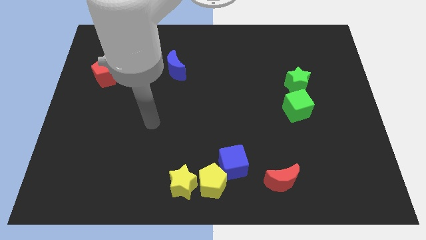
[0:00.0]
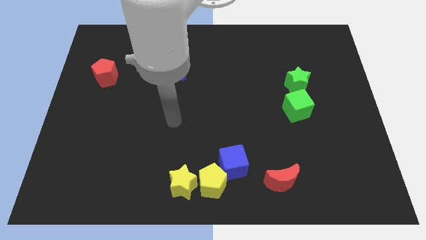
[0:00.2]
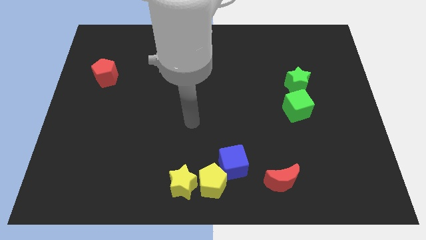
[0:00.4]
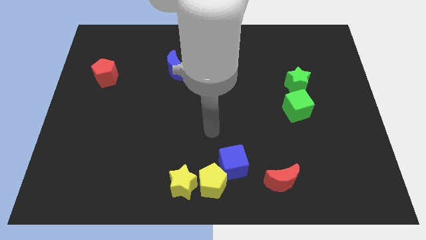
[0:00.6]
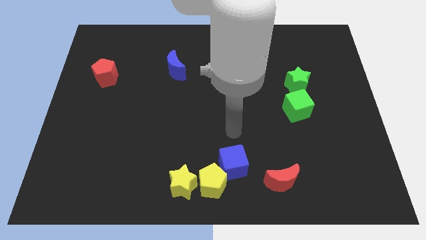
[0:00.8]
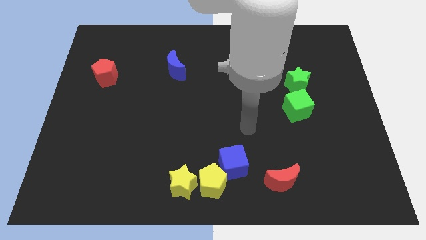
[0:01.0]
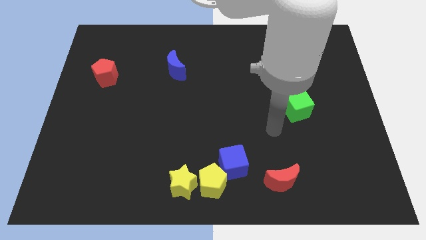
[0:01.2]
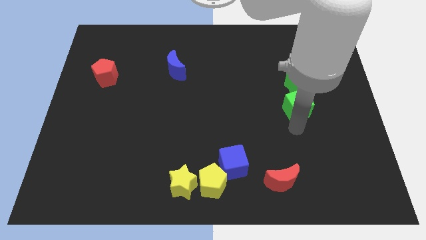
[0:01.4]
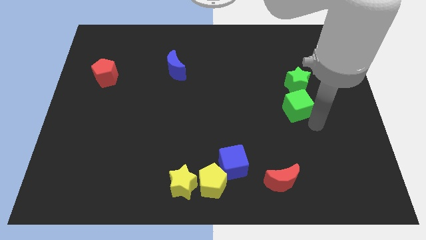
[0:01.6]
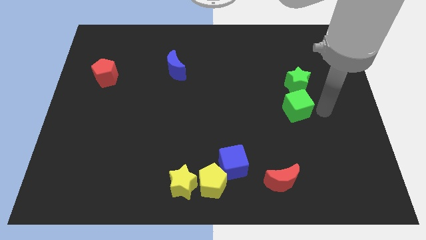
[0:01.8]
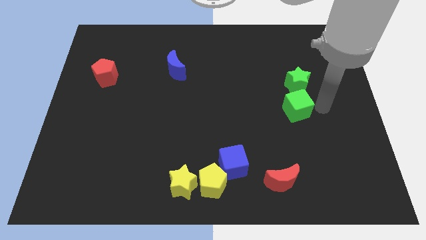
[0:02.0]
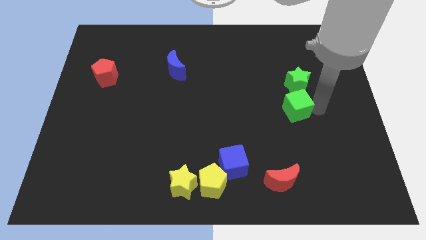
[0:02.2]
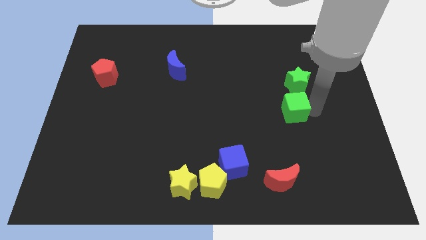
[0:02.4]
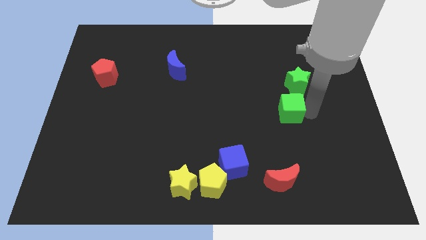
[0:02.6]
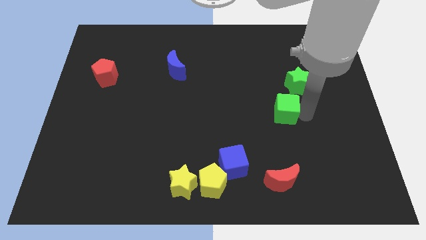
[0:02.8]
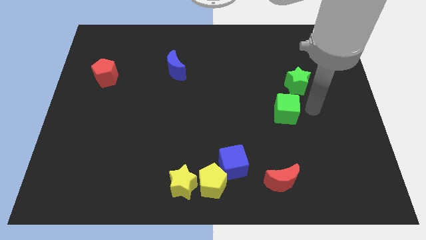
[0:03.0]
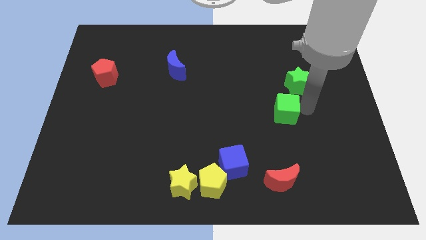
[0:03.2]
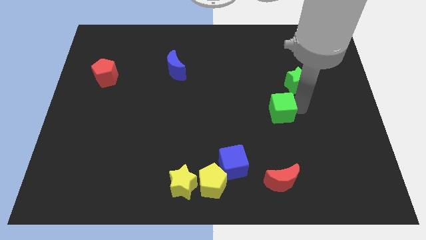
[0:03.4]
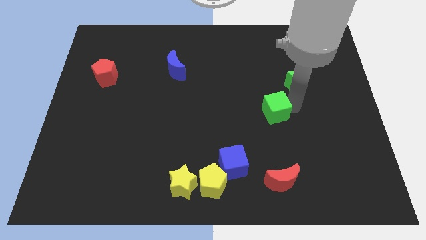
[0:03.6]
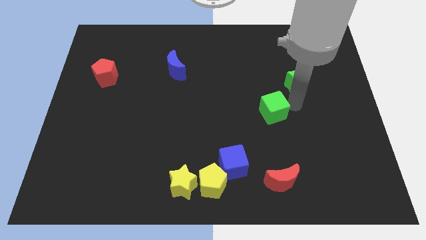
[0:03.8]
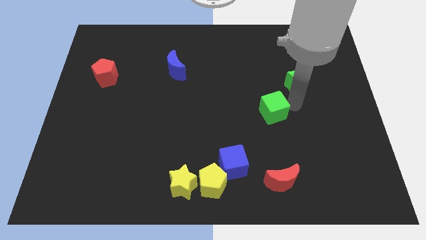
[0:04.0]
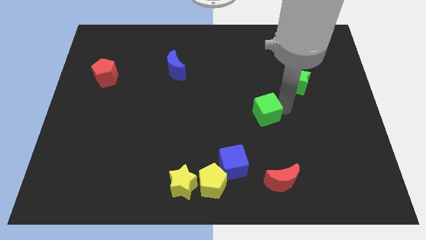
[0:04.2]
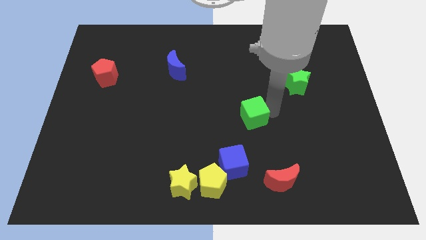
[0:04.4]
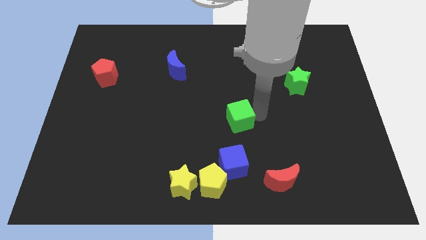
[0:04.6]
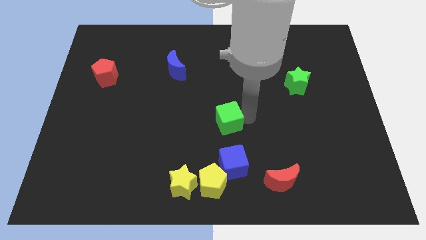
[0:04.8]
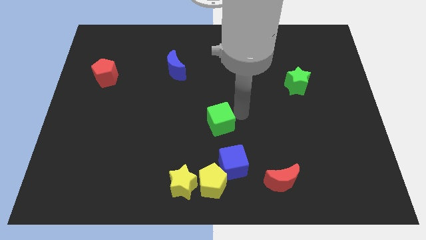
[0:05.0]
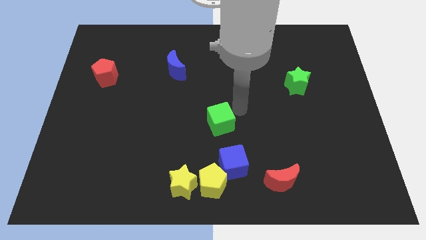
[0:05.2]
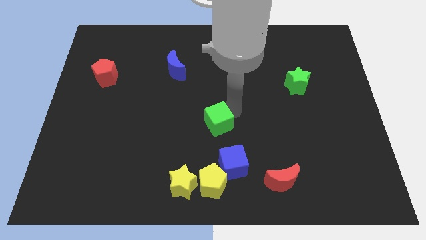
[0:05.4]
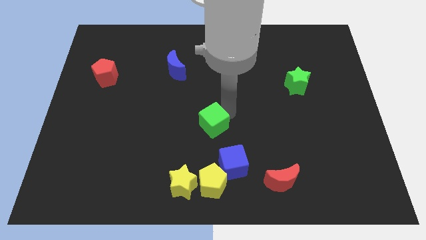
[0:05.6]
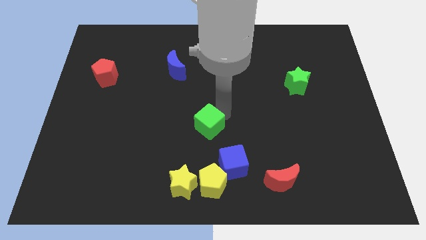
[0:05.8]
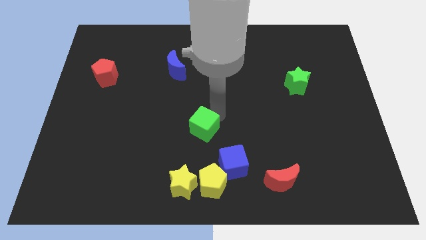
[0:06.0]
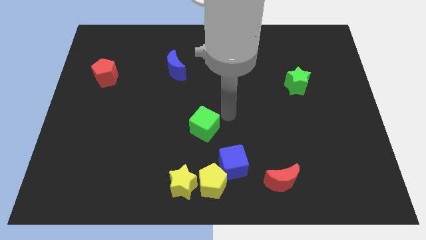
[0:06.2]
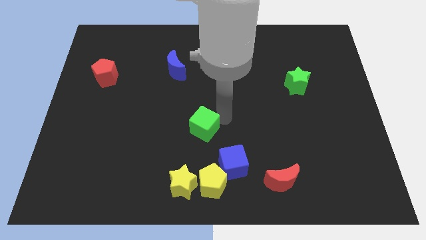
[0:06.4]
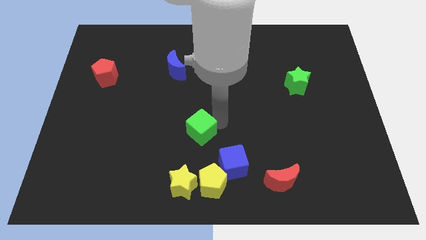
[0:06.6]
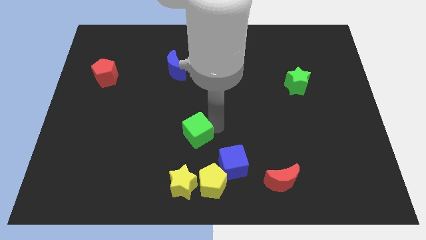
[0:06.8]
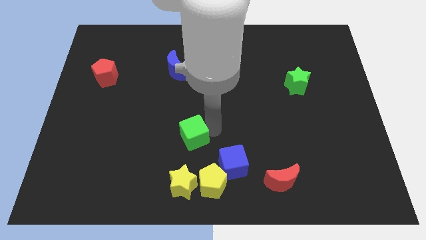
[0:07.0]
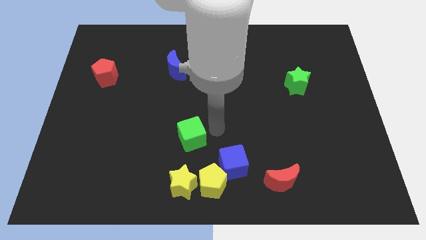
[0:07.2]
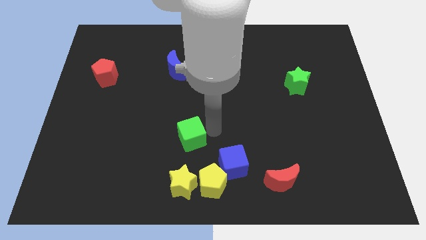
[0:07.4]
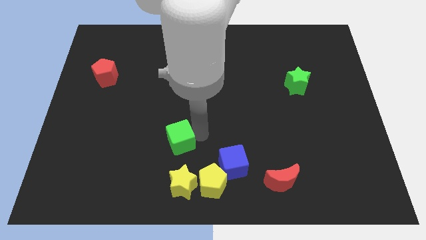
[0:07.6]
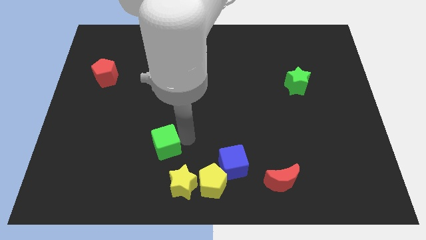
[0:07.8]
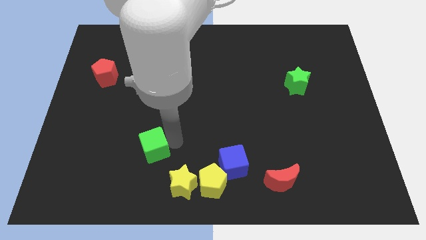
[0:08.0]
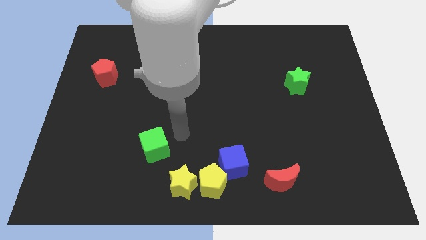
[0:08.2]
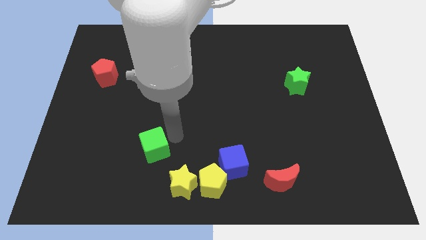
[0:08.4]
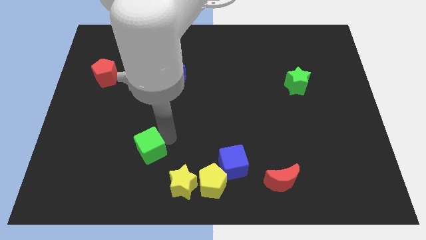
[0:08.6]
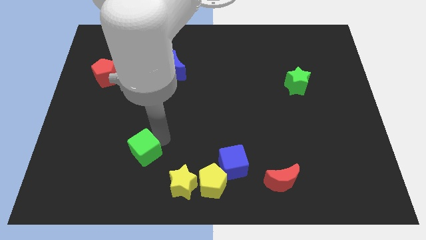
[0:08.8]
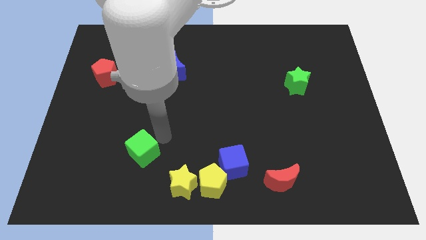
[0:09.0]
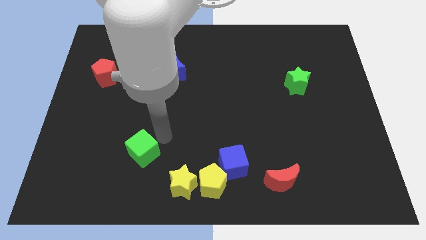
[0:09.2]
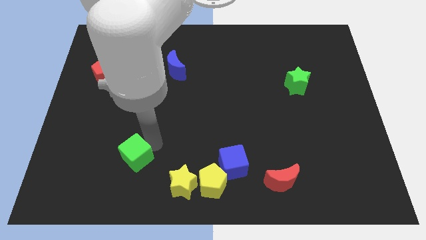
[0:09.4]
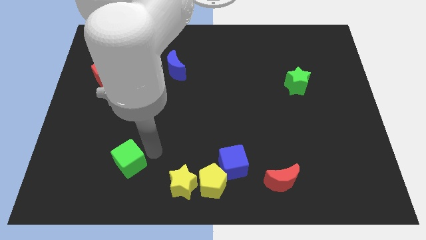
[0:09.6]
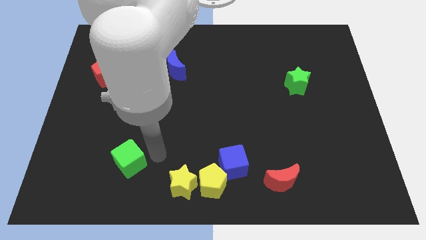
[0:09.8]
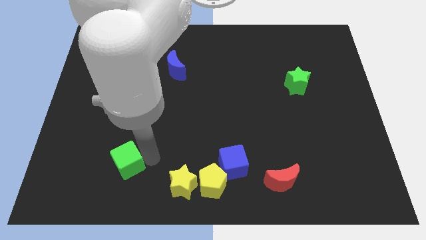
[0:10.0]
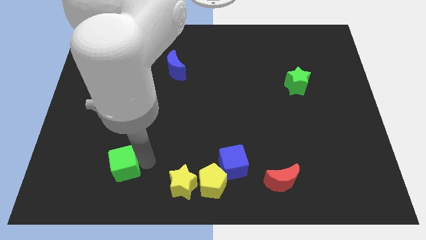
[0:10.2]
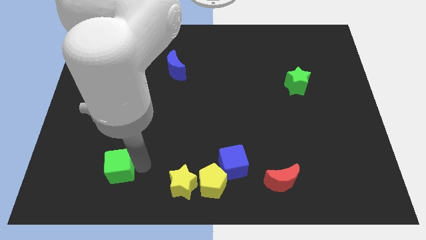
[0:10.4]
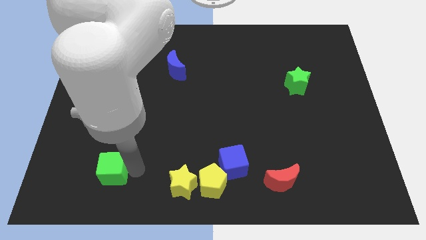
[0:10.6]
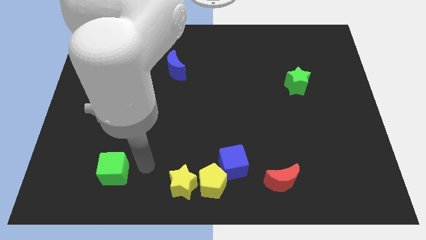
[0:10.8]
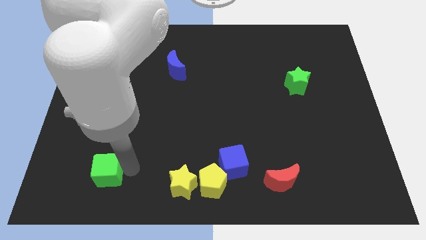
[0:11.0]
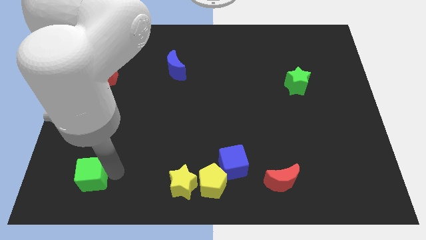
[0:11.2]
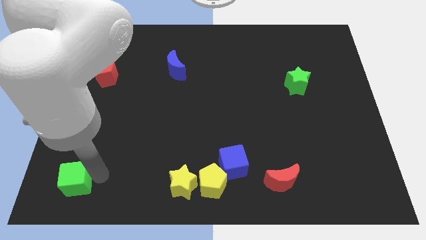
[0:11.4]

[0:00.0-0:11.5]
slide the green cube to the bottom left corner

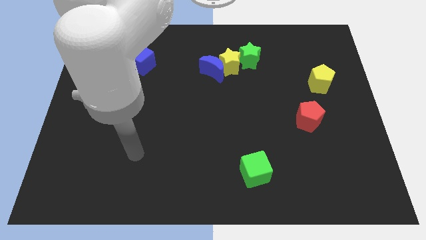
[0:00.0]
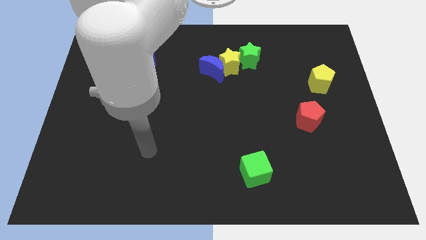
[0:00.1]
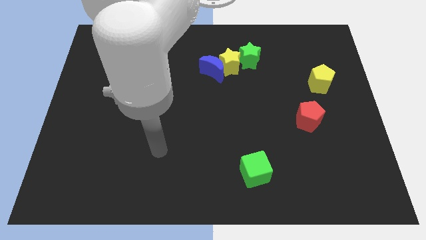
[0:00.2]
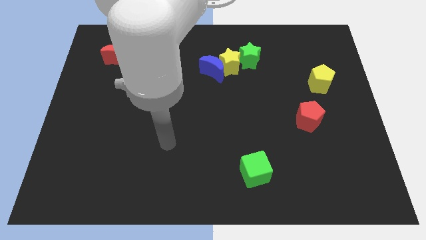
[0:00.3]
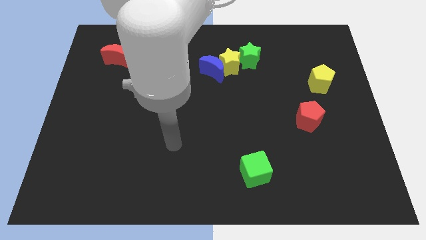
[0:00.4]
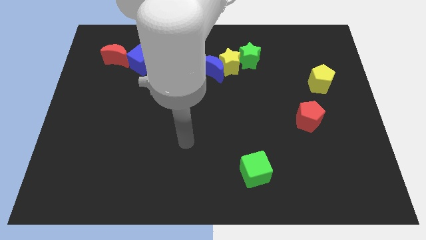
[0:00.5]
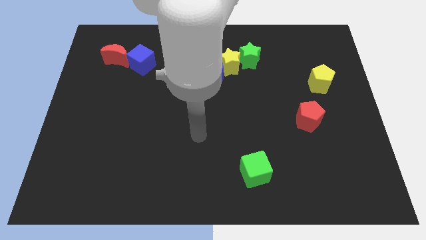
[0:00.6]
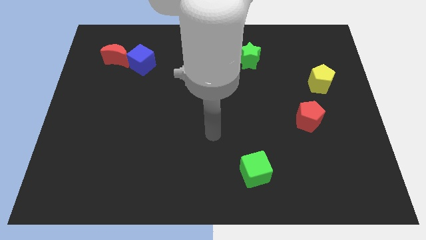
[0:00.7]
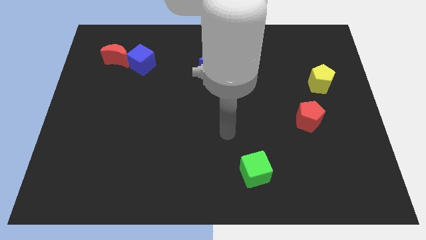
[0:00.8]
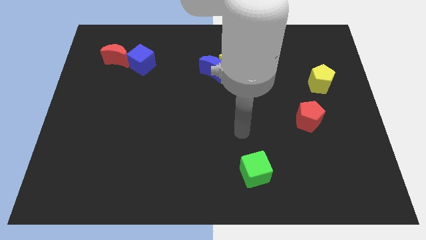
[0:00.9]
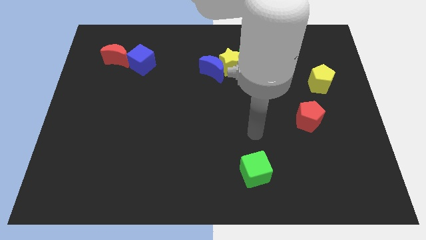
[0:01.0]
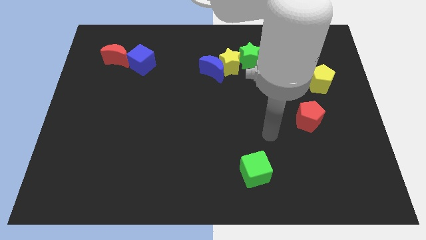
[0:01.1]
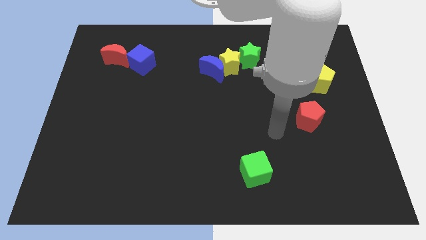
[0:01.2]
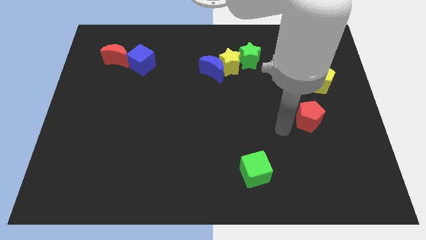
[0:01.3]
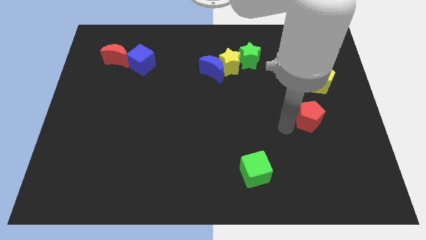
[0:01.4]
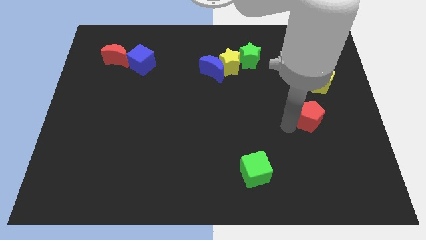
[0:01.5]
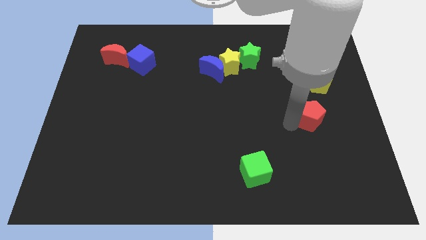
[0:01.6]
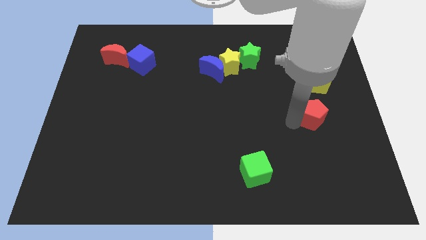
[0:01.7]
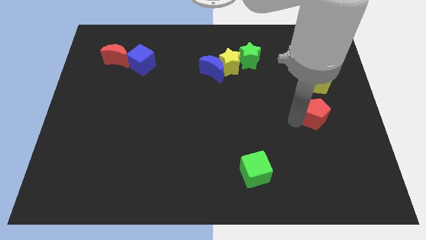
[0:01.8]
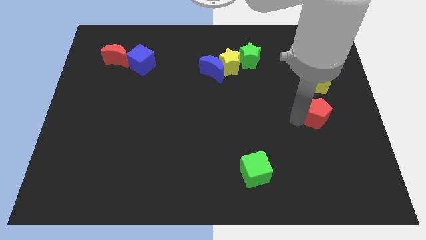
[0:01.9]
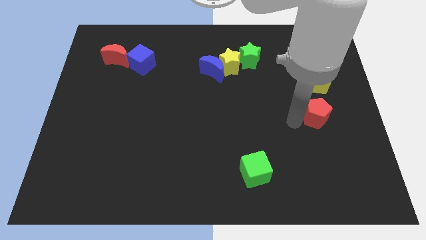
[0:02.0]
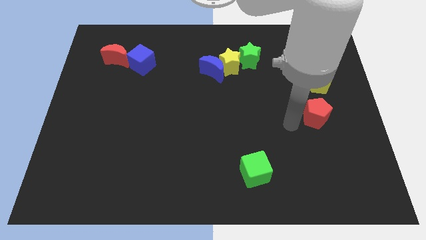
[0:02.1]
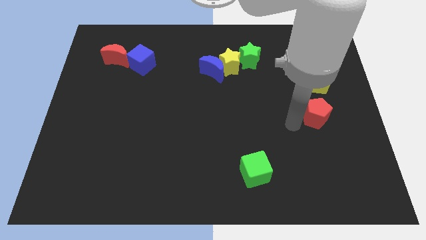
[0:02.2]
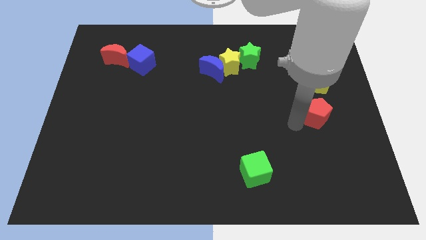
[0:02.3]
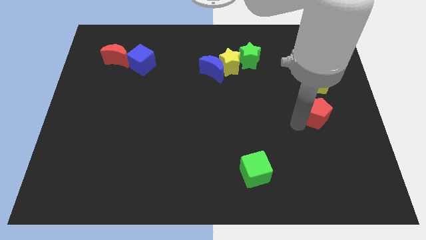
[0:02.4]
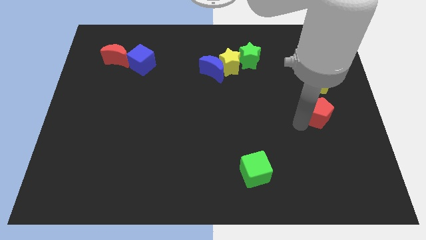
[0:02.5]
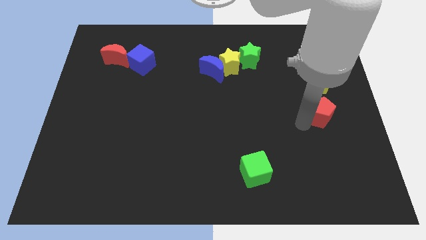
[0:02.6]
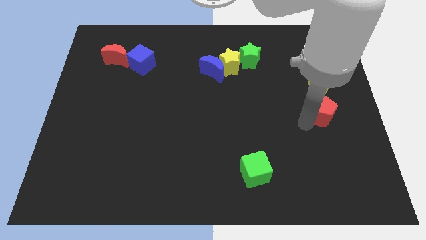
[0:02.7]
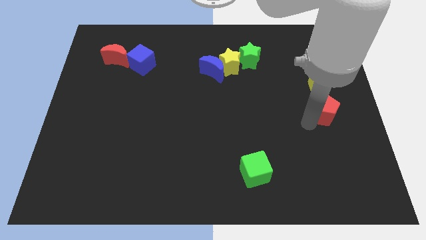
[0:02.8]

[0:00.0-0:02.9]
put the red pentagon to the center right
